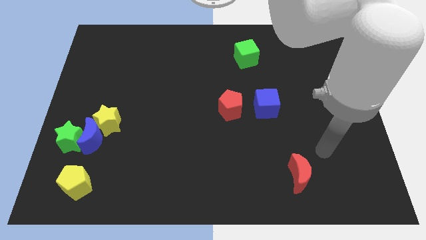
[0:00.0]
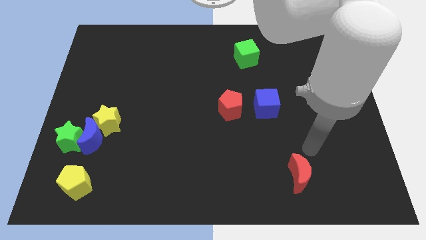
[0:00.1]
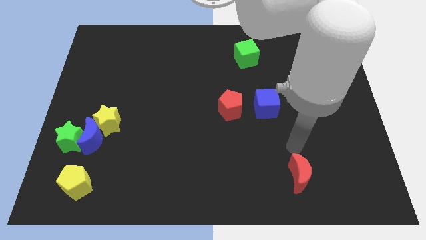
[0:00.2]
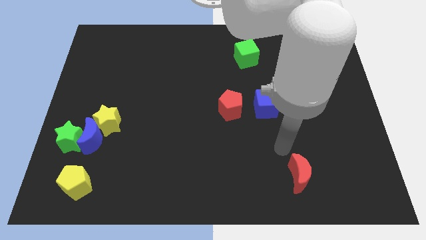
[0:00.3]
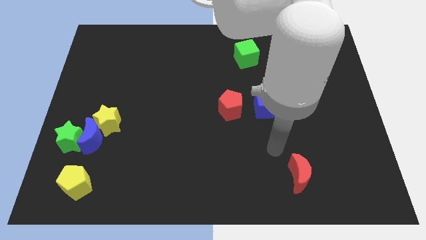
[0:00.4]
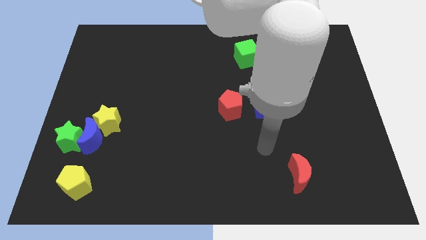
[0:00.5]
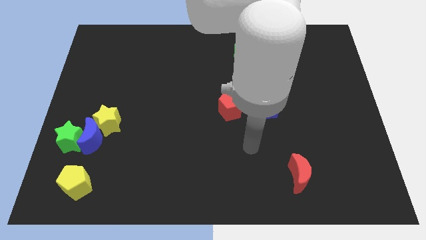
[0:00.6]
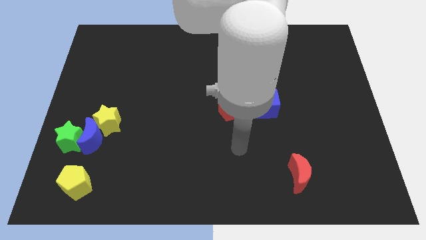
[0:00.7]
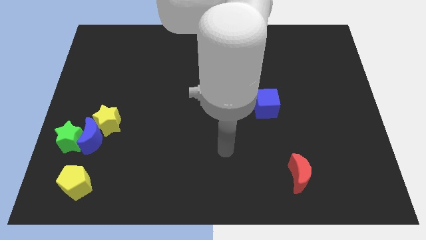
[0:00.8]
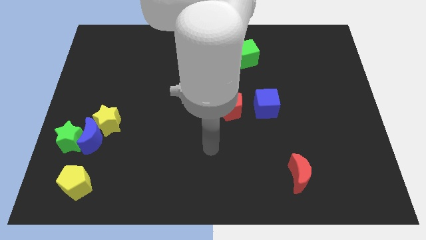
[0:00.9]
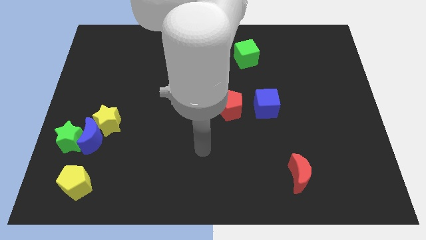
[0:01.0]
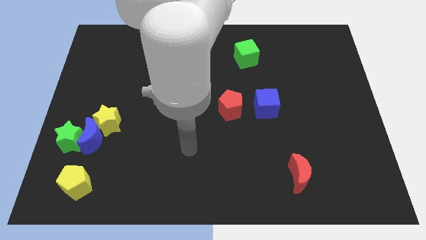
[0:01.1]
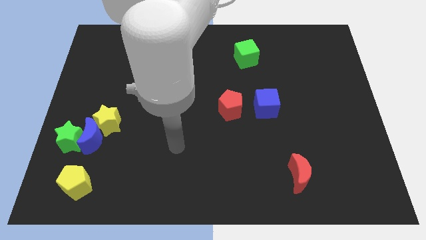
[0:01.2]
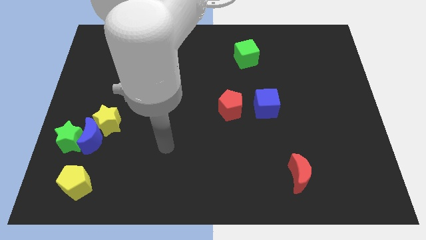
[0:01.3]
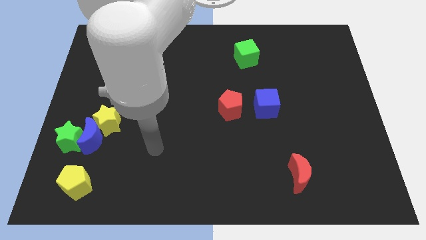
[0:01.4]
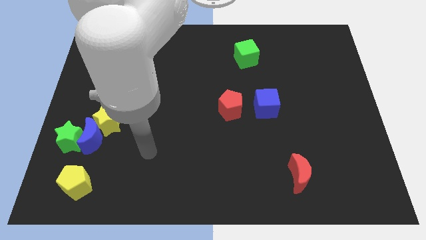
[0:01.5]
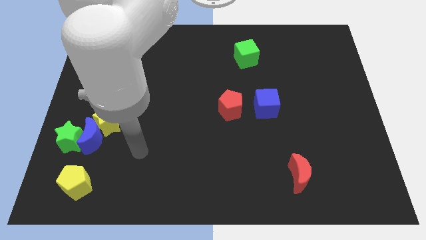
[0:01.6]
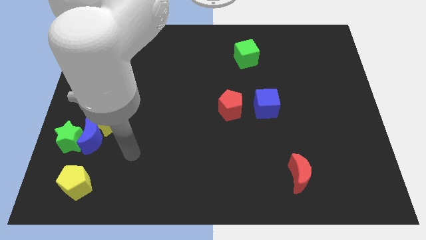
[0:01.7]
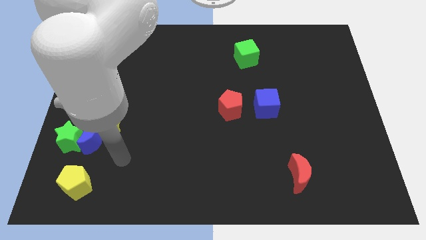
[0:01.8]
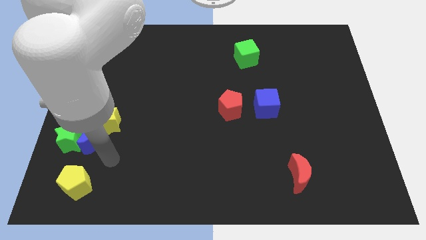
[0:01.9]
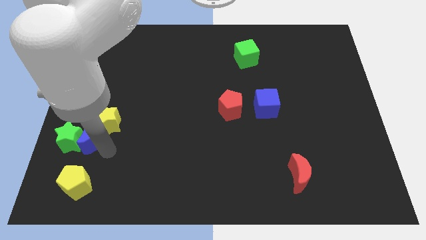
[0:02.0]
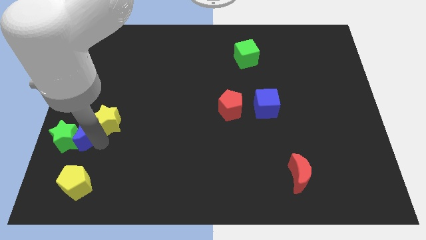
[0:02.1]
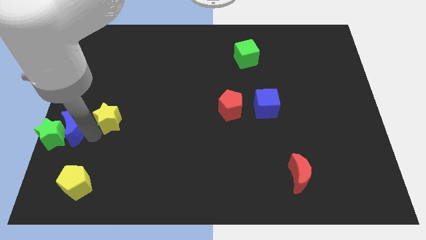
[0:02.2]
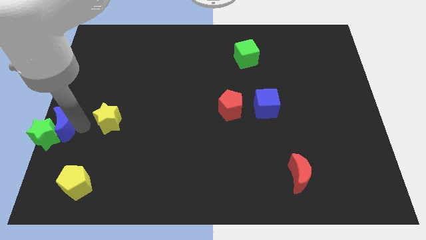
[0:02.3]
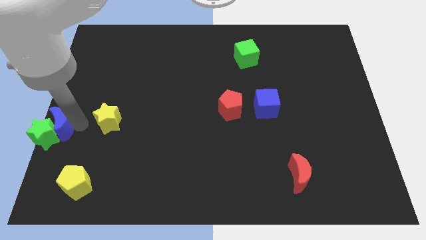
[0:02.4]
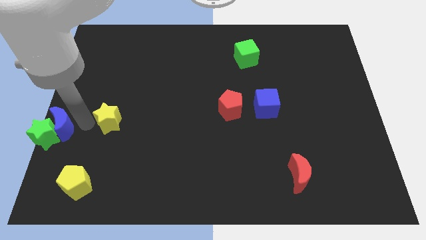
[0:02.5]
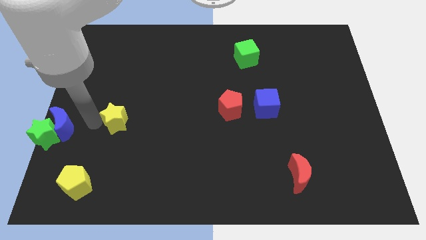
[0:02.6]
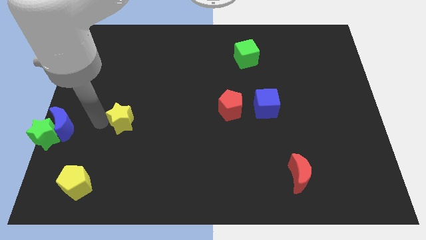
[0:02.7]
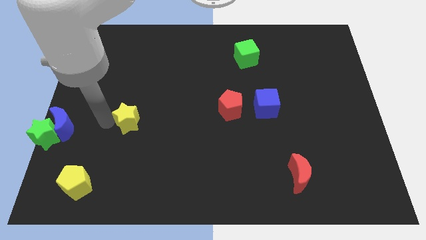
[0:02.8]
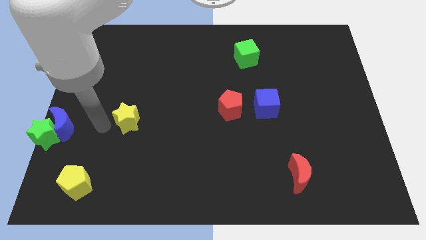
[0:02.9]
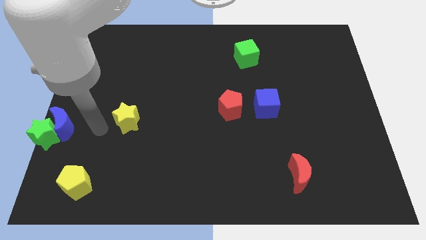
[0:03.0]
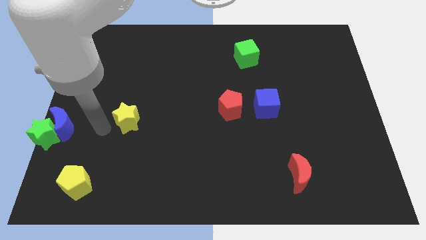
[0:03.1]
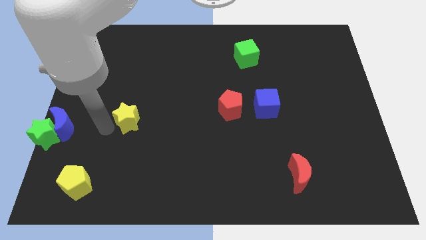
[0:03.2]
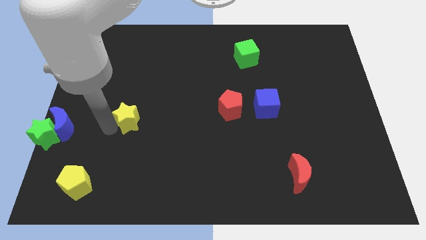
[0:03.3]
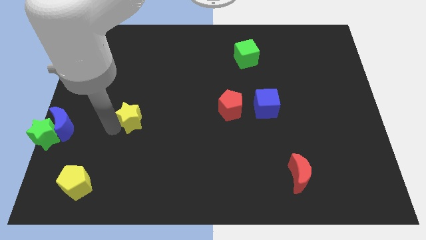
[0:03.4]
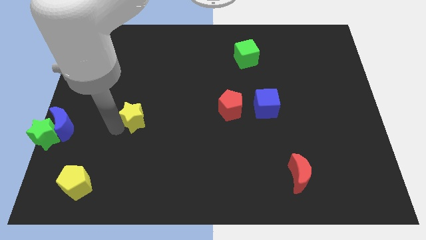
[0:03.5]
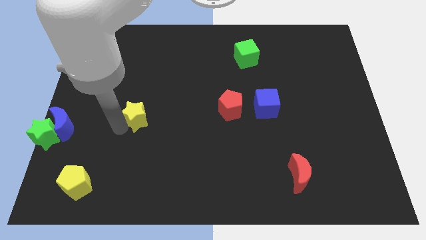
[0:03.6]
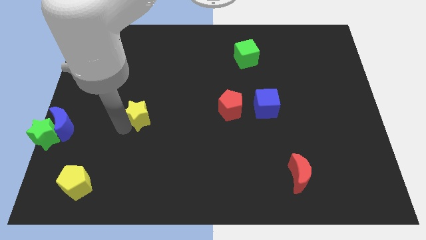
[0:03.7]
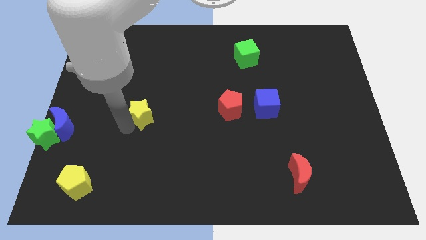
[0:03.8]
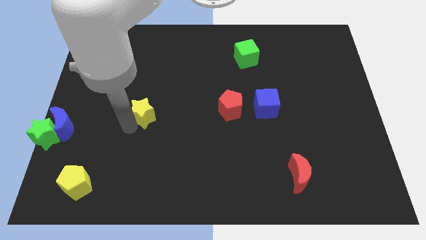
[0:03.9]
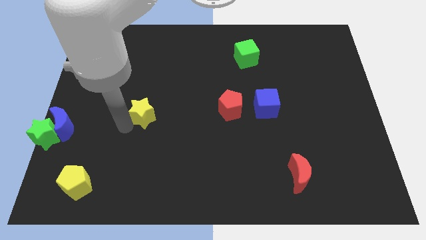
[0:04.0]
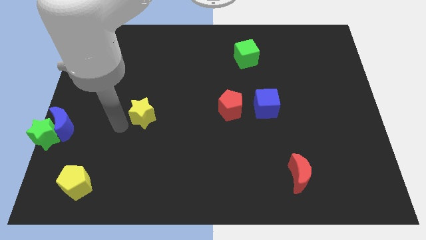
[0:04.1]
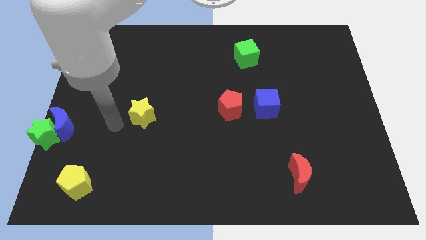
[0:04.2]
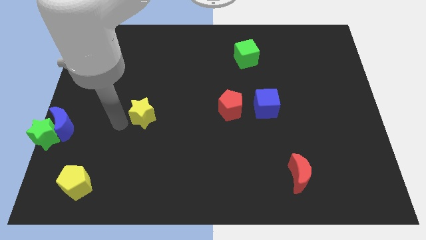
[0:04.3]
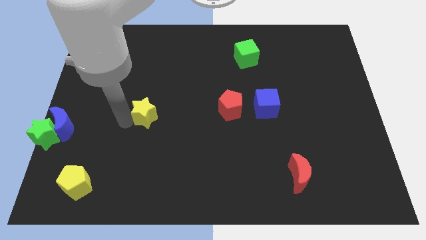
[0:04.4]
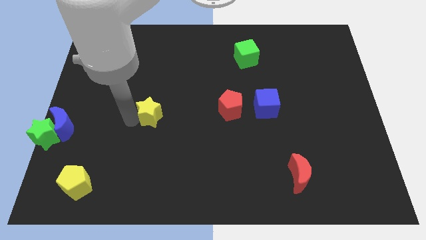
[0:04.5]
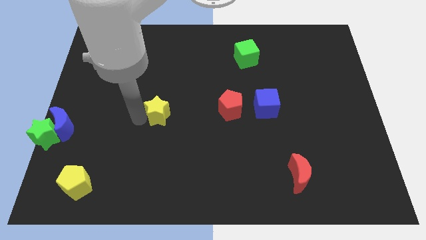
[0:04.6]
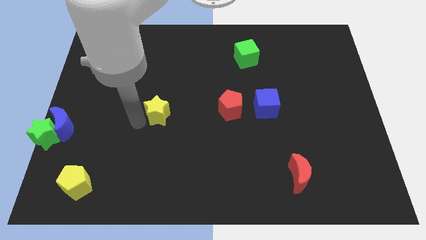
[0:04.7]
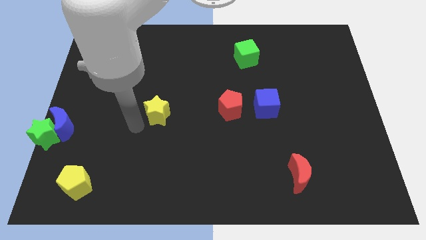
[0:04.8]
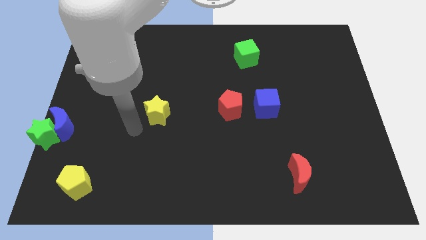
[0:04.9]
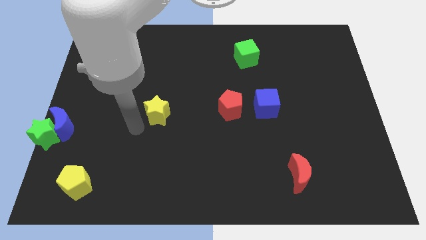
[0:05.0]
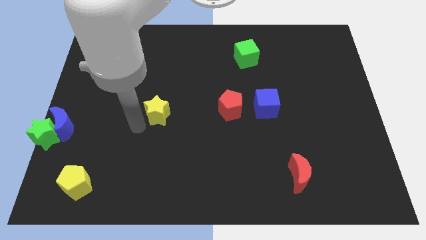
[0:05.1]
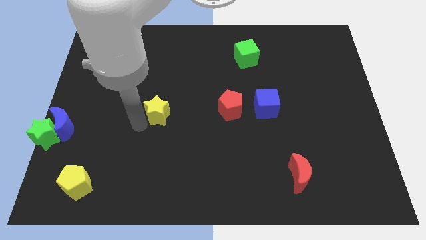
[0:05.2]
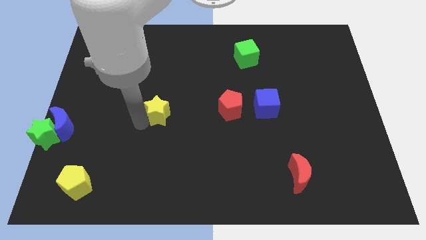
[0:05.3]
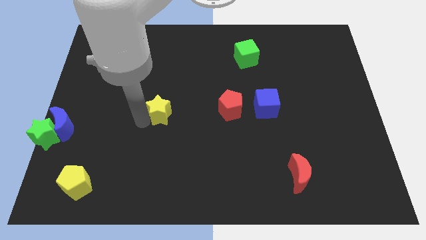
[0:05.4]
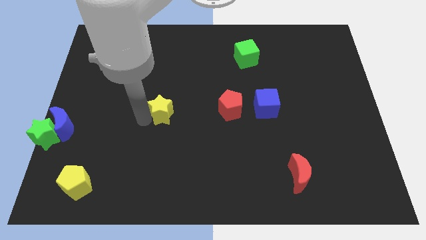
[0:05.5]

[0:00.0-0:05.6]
move the yellow star to the center
